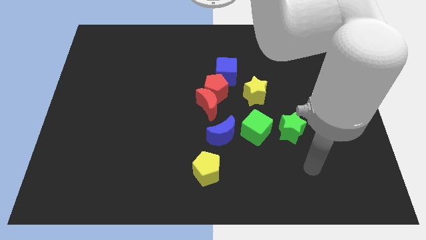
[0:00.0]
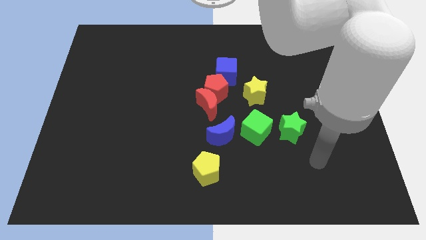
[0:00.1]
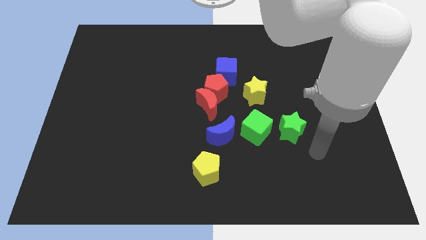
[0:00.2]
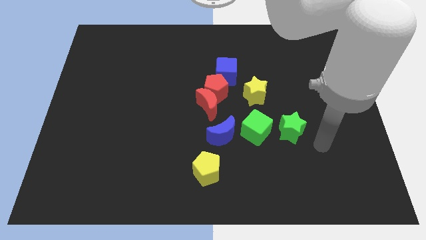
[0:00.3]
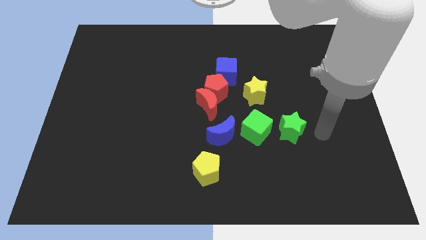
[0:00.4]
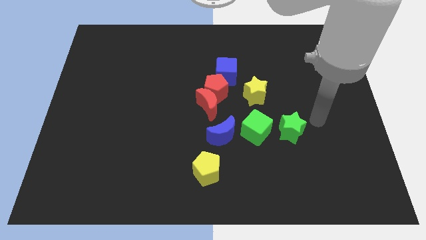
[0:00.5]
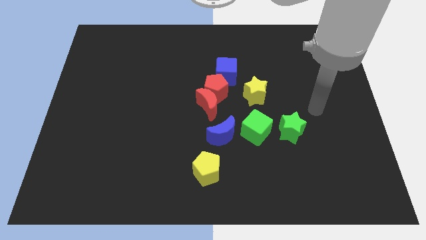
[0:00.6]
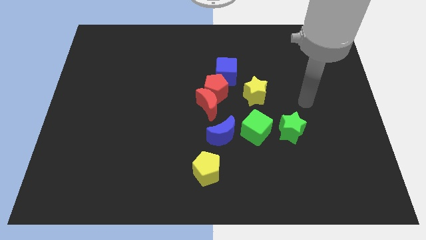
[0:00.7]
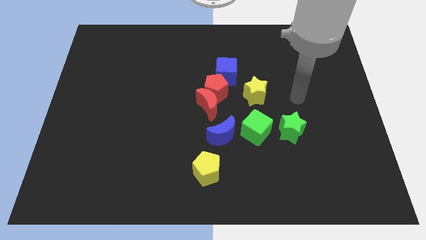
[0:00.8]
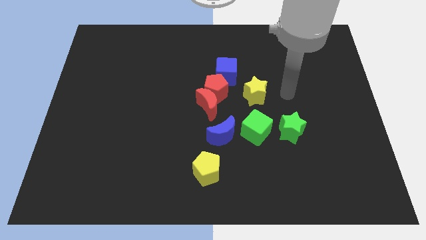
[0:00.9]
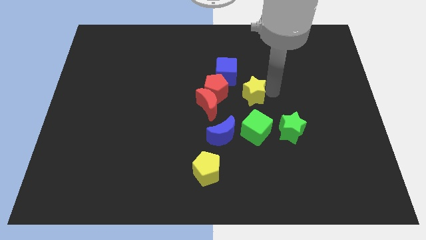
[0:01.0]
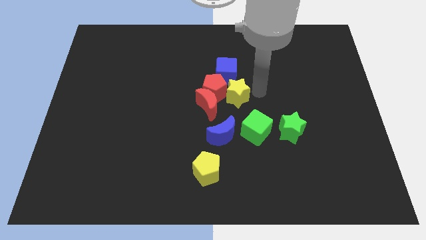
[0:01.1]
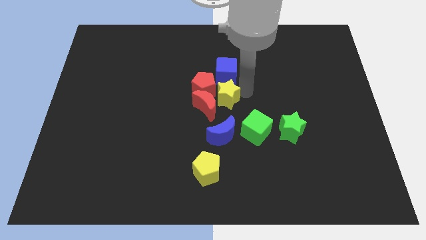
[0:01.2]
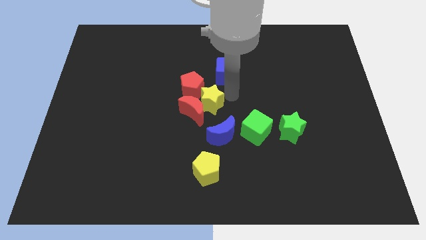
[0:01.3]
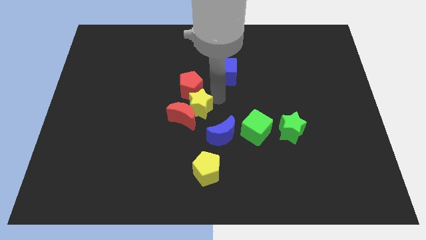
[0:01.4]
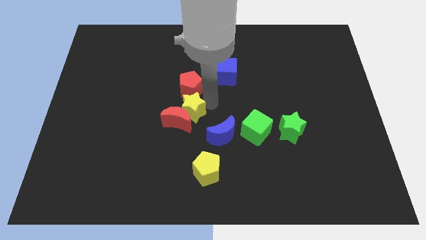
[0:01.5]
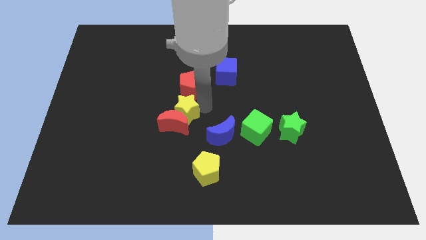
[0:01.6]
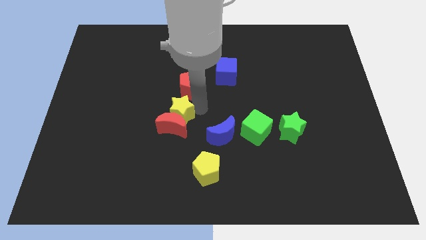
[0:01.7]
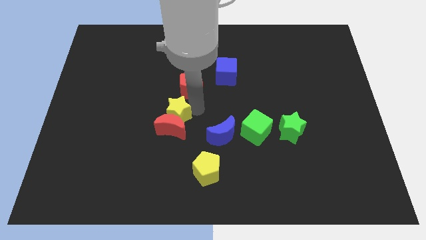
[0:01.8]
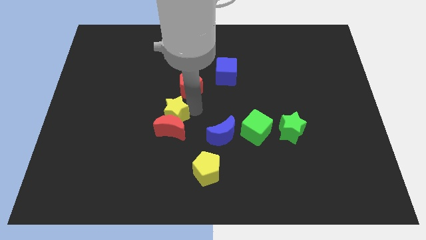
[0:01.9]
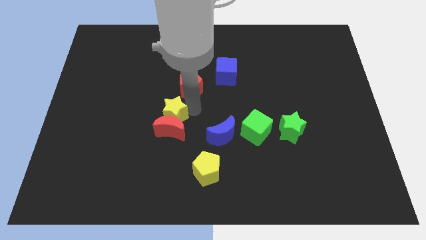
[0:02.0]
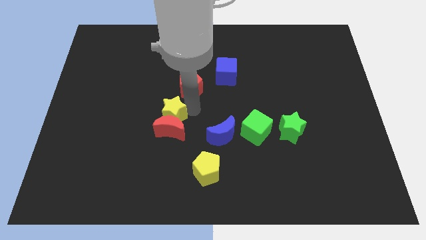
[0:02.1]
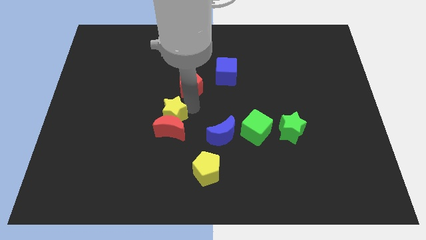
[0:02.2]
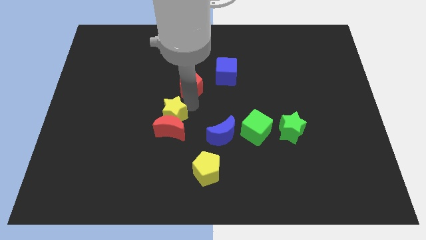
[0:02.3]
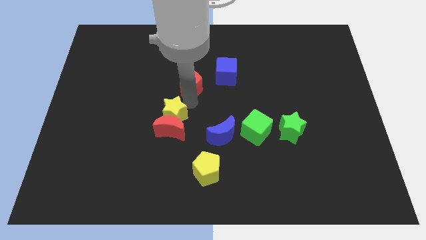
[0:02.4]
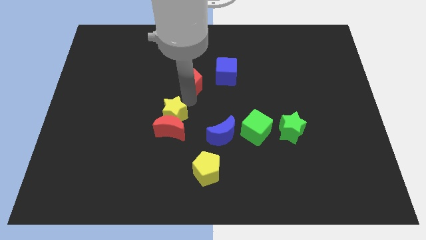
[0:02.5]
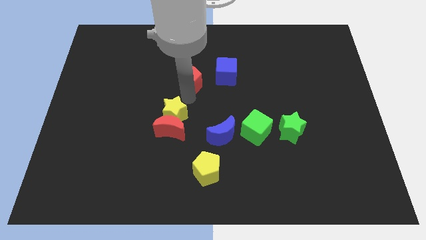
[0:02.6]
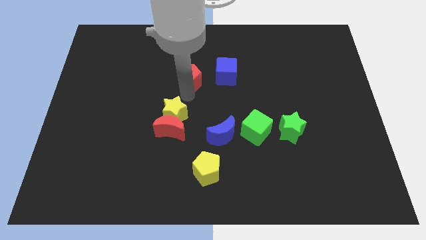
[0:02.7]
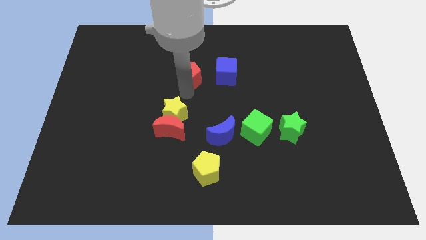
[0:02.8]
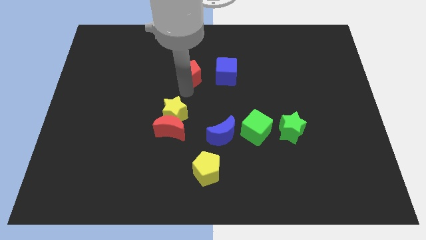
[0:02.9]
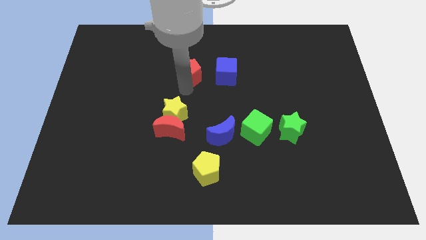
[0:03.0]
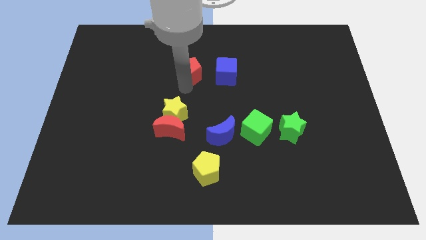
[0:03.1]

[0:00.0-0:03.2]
move the red pentagon away from the group of blocks

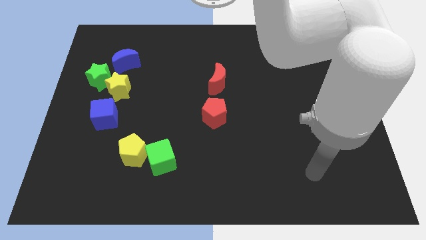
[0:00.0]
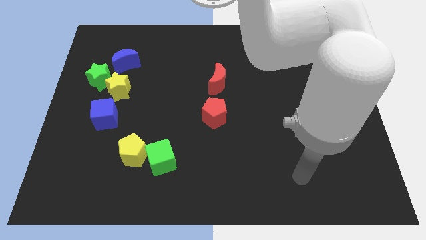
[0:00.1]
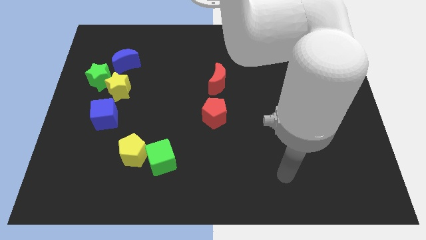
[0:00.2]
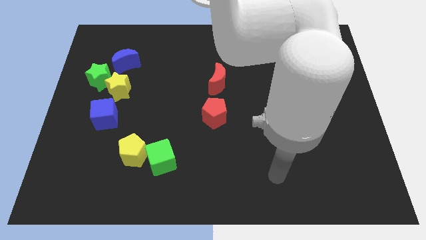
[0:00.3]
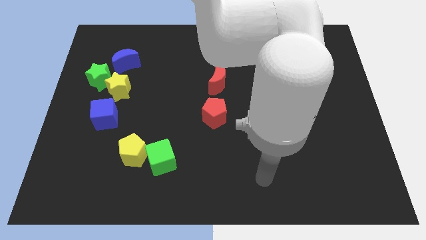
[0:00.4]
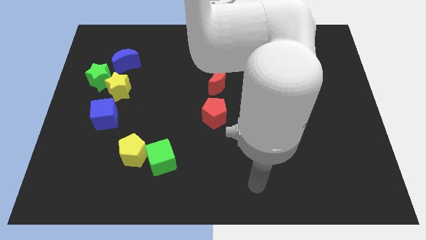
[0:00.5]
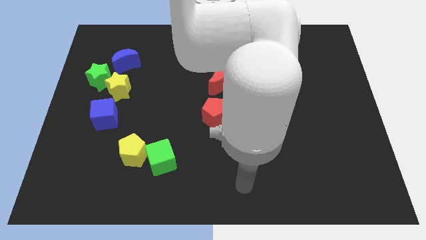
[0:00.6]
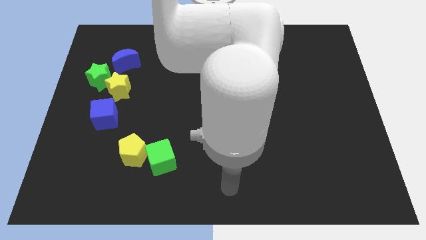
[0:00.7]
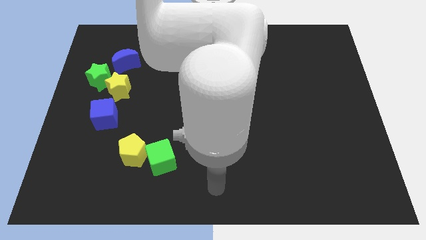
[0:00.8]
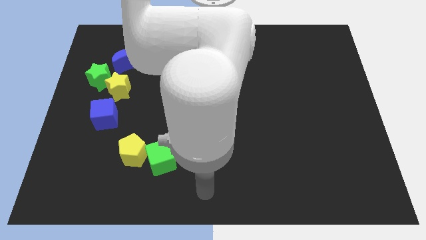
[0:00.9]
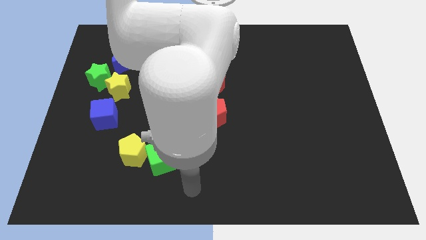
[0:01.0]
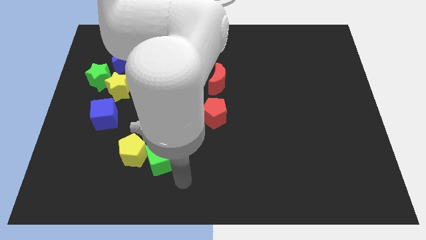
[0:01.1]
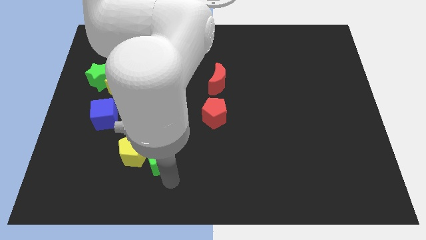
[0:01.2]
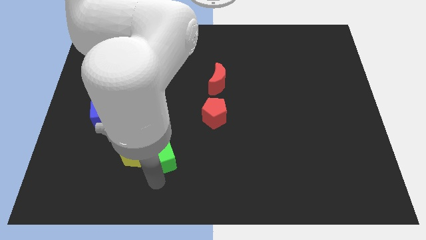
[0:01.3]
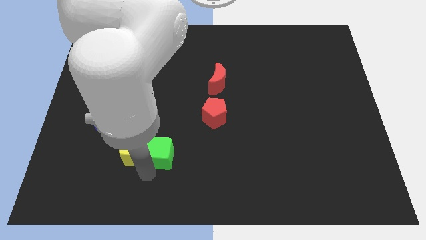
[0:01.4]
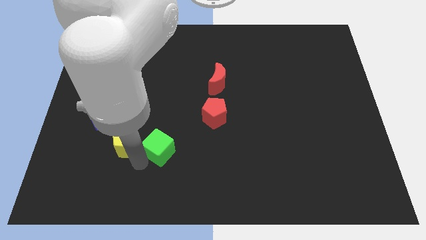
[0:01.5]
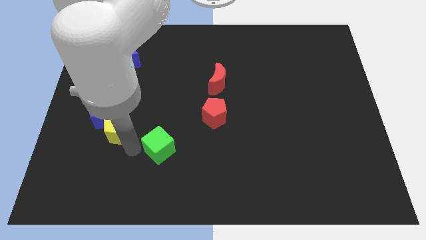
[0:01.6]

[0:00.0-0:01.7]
separate the green cube from the yellow pentagon

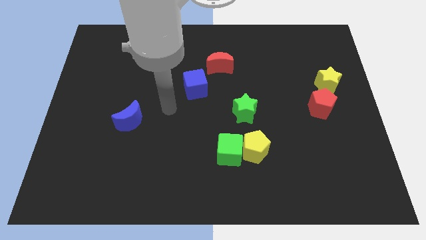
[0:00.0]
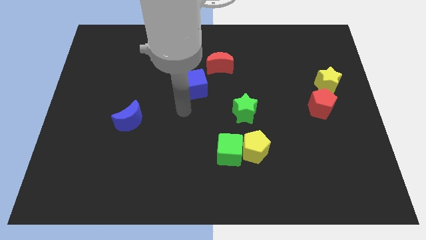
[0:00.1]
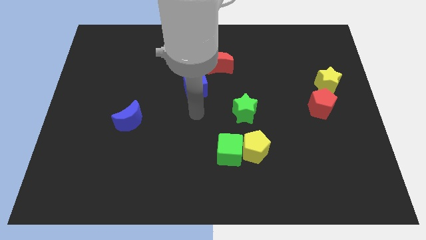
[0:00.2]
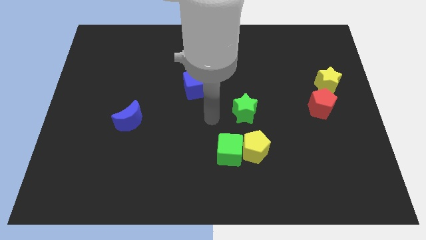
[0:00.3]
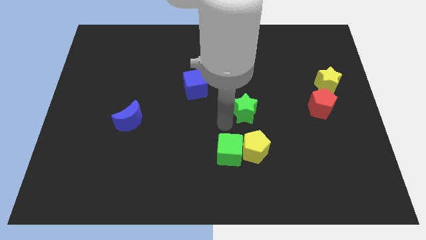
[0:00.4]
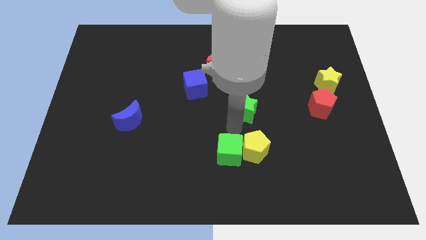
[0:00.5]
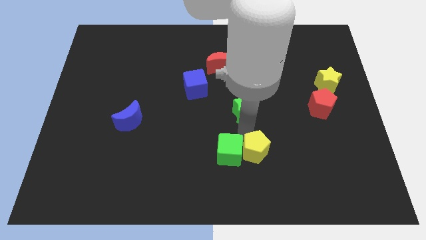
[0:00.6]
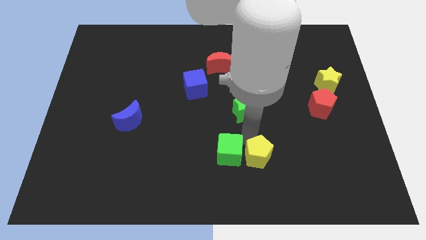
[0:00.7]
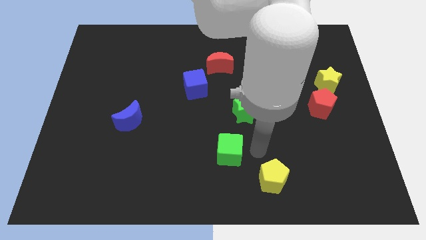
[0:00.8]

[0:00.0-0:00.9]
move the green cube away from the yellow pentagon

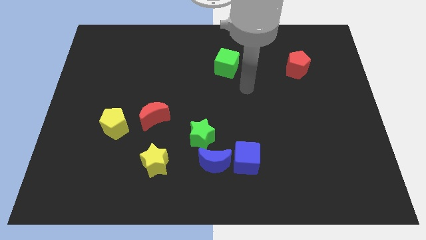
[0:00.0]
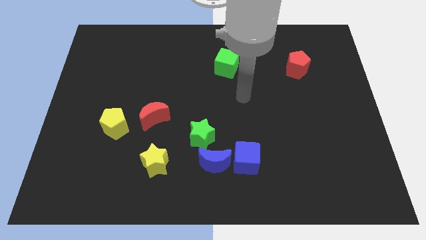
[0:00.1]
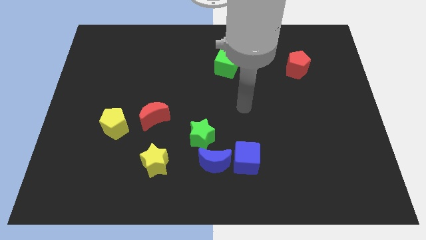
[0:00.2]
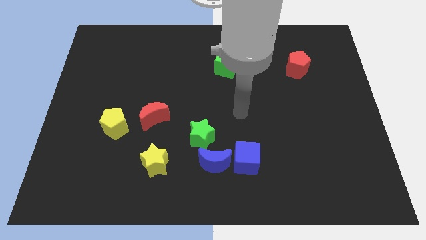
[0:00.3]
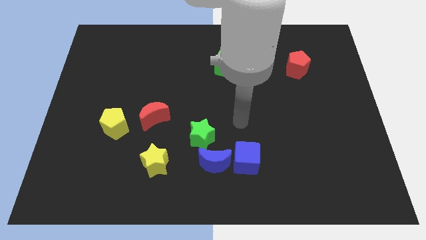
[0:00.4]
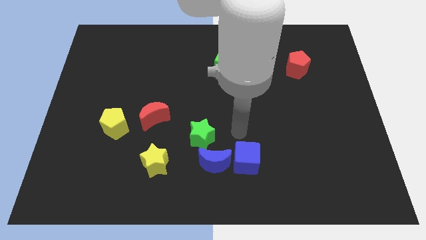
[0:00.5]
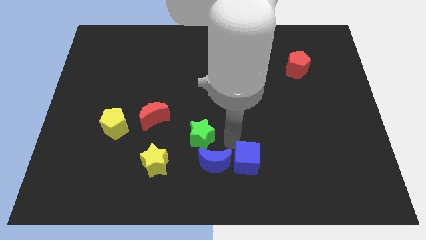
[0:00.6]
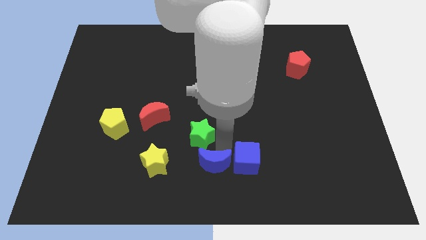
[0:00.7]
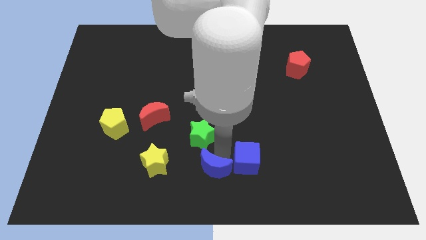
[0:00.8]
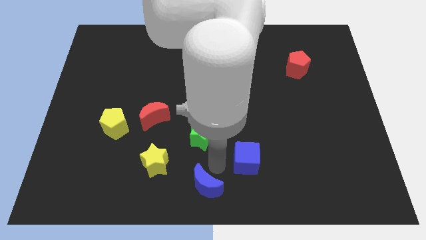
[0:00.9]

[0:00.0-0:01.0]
pull the blue cube apart from the blue moon

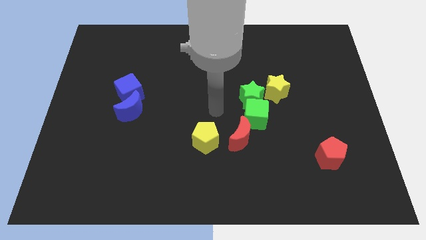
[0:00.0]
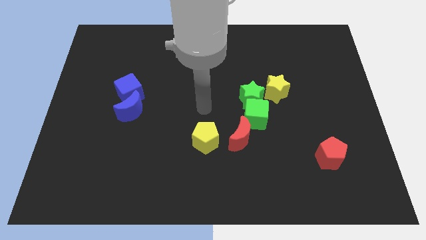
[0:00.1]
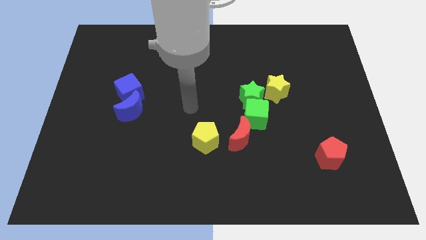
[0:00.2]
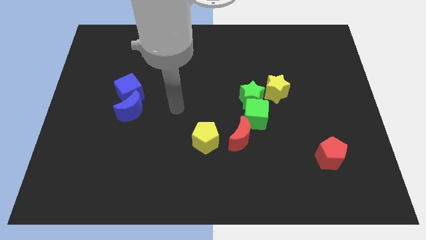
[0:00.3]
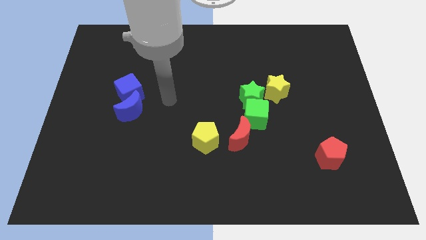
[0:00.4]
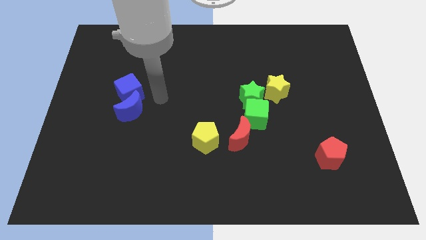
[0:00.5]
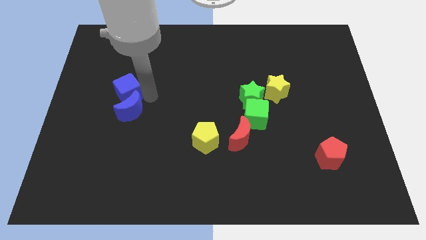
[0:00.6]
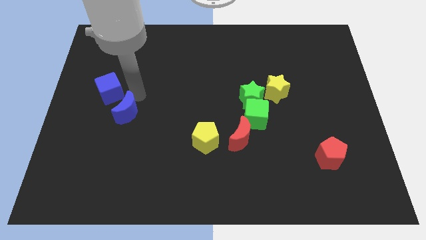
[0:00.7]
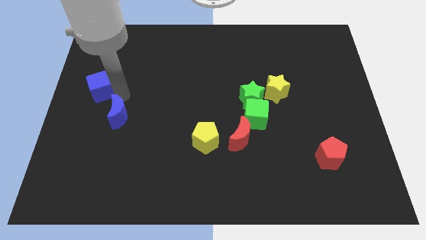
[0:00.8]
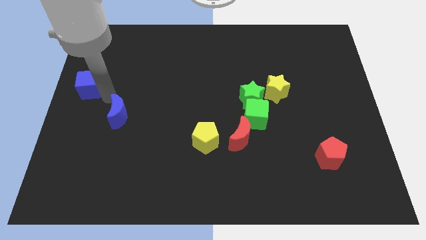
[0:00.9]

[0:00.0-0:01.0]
separate the blue moon from the blue cube

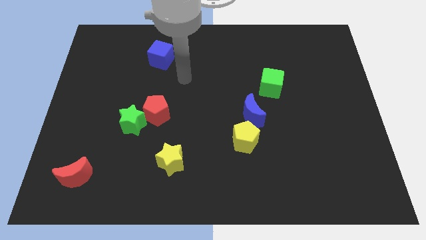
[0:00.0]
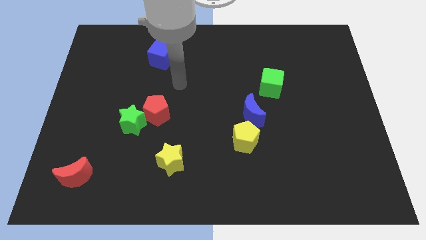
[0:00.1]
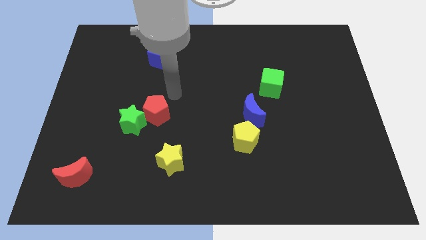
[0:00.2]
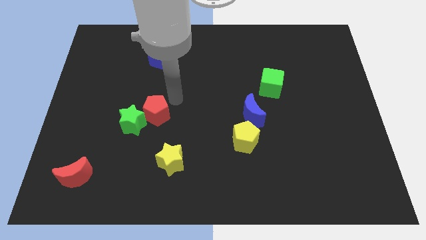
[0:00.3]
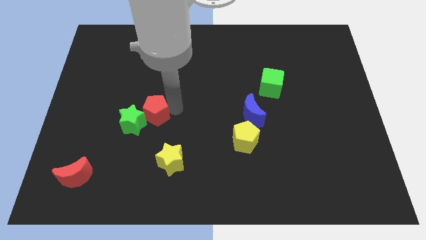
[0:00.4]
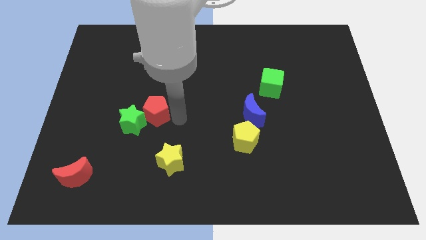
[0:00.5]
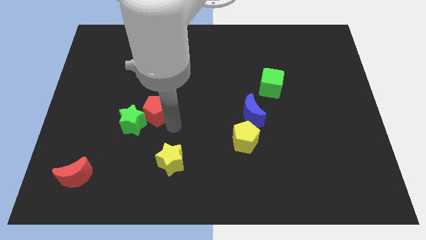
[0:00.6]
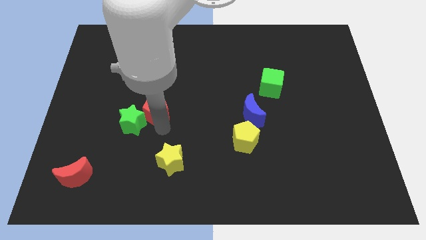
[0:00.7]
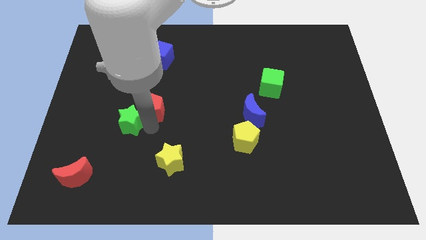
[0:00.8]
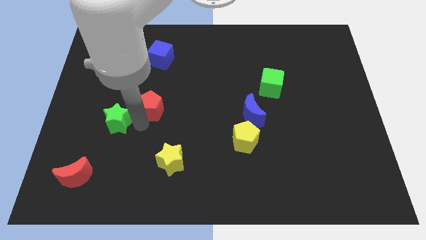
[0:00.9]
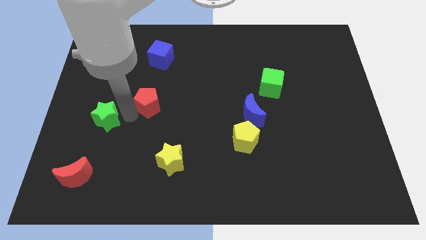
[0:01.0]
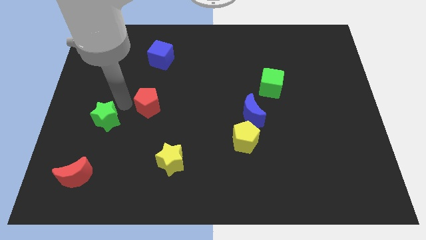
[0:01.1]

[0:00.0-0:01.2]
move the red pentagon away from the green star

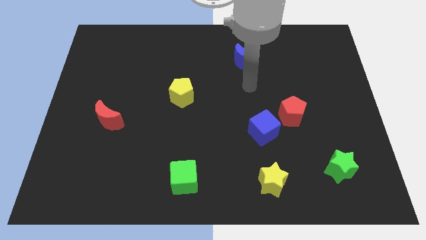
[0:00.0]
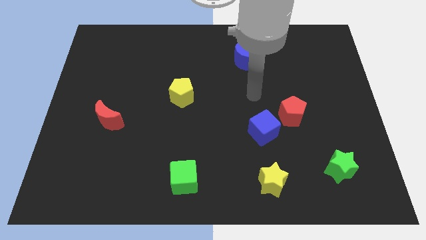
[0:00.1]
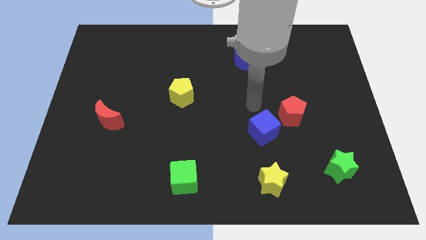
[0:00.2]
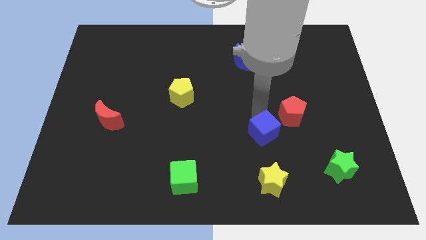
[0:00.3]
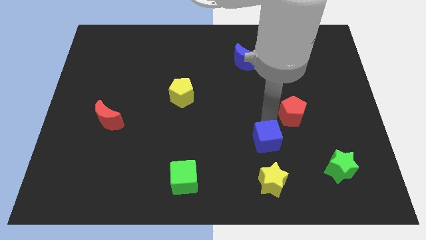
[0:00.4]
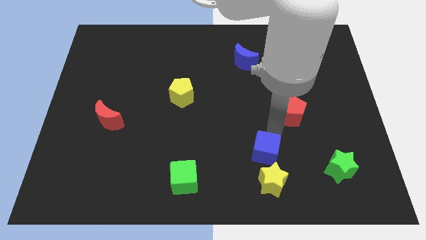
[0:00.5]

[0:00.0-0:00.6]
pull the red pentagon apart from the blue cube
